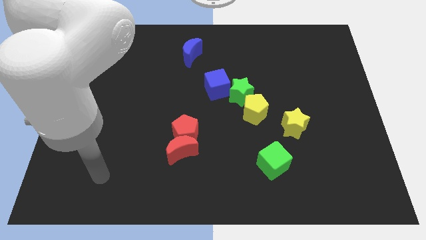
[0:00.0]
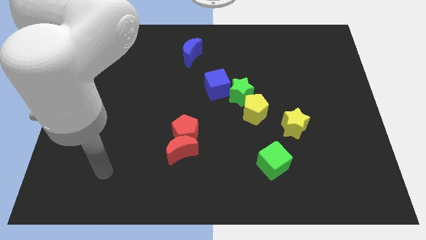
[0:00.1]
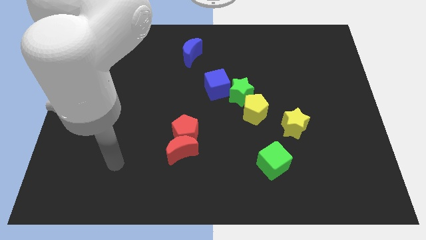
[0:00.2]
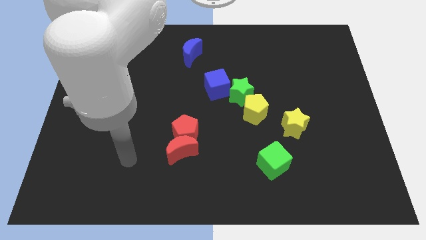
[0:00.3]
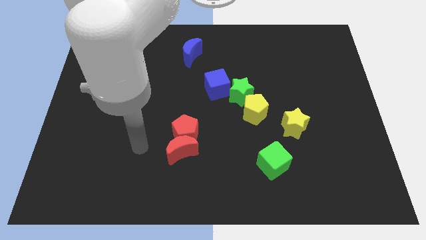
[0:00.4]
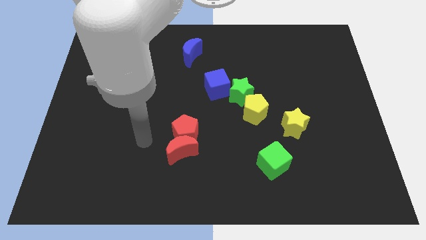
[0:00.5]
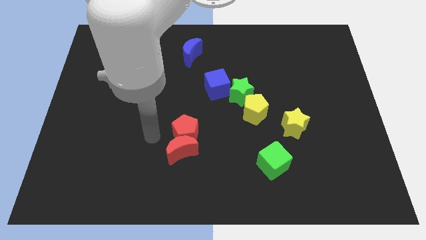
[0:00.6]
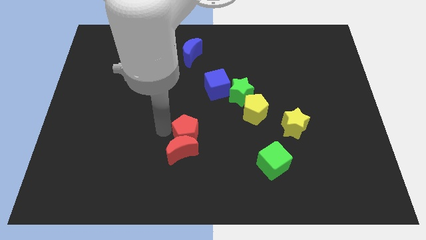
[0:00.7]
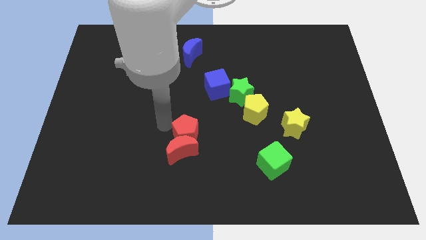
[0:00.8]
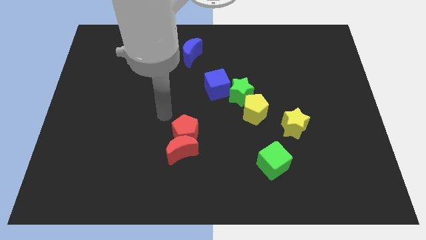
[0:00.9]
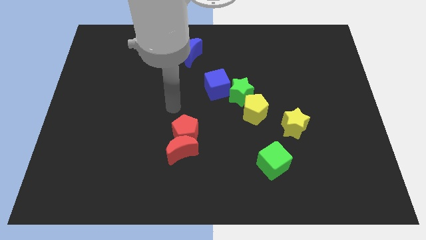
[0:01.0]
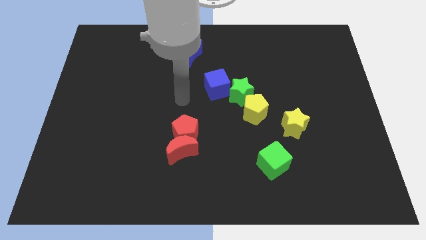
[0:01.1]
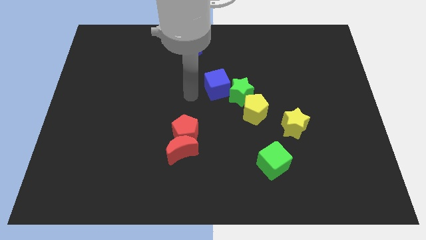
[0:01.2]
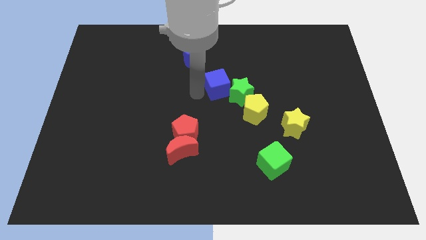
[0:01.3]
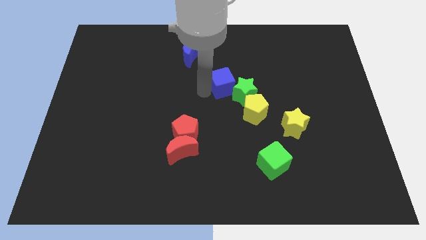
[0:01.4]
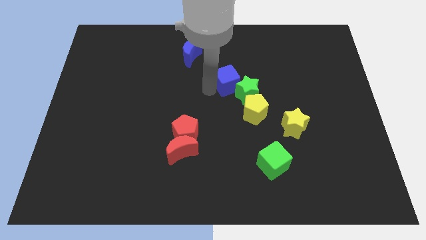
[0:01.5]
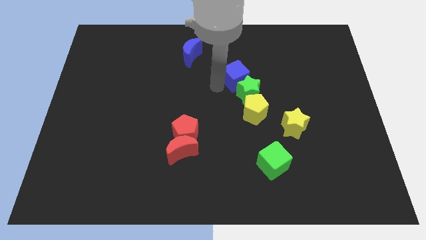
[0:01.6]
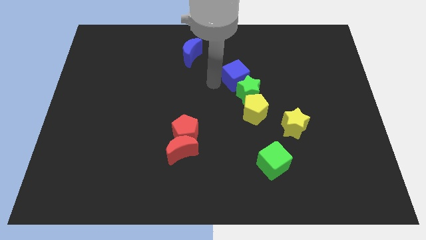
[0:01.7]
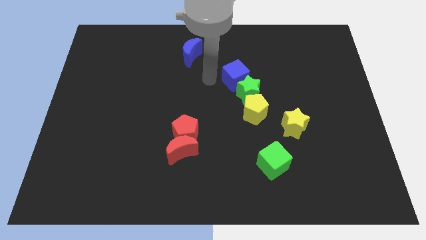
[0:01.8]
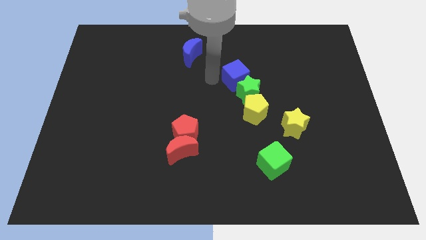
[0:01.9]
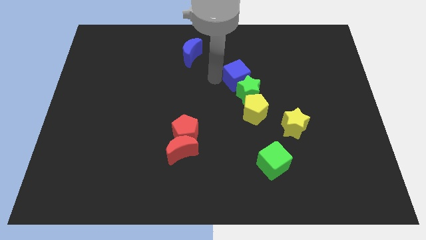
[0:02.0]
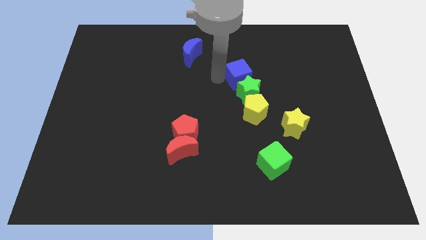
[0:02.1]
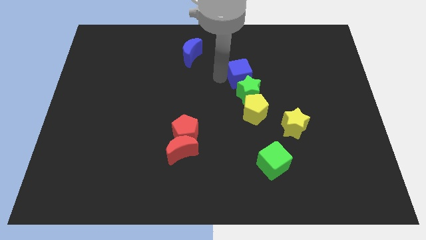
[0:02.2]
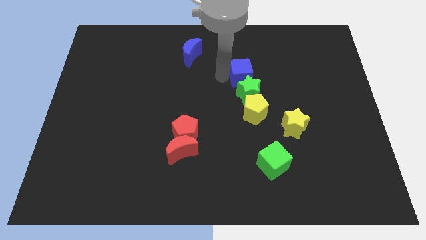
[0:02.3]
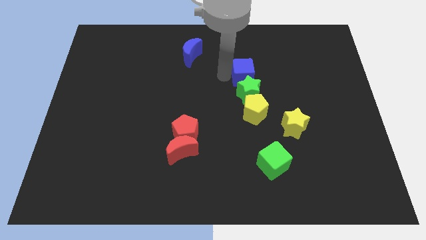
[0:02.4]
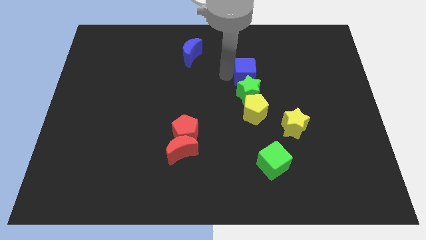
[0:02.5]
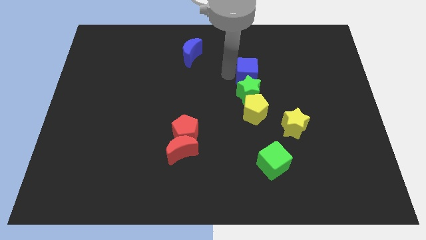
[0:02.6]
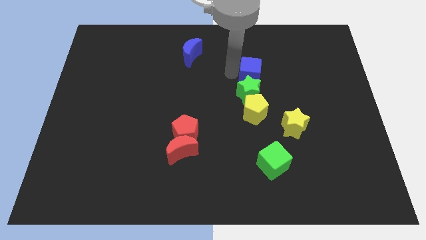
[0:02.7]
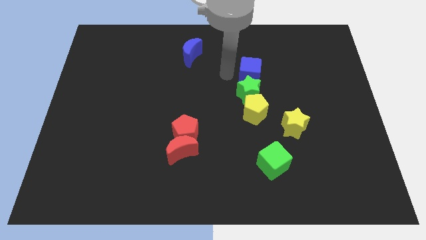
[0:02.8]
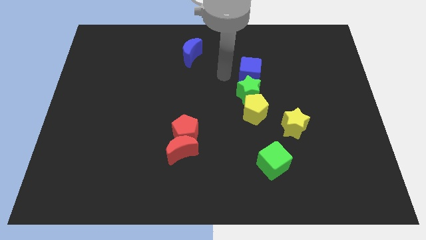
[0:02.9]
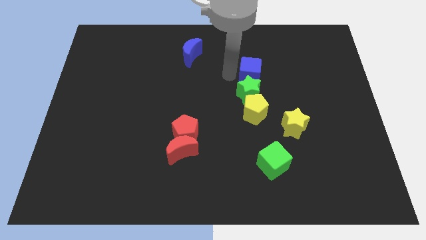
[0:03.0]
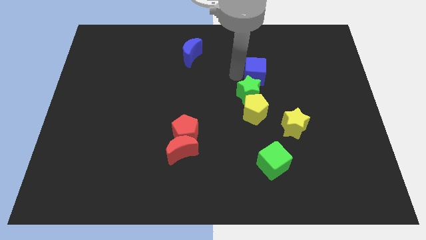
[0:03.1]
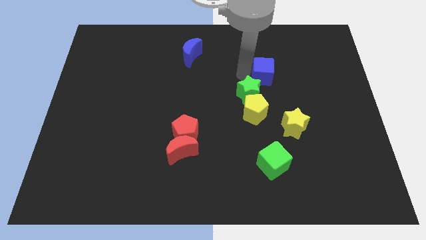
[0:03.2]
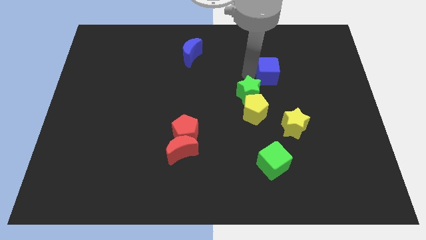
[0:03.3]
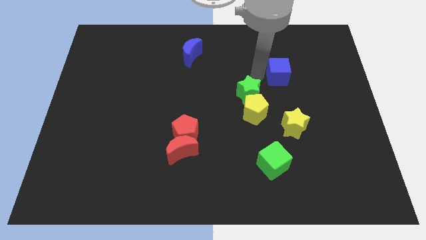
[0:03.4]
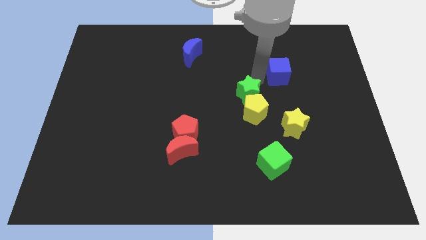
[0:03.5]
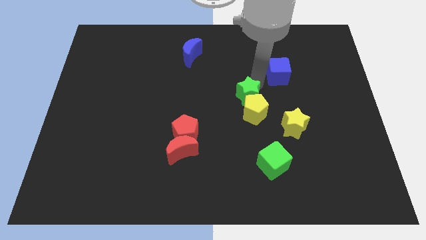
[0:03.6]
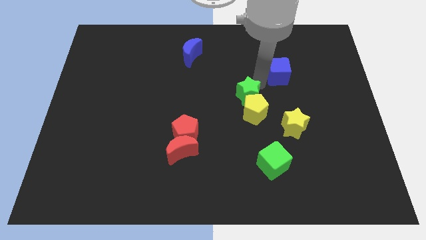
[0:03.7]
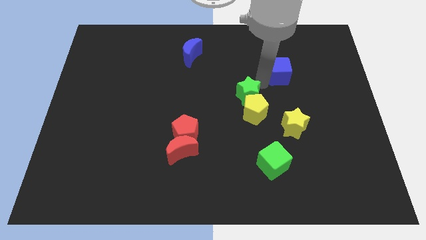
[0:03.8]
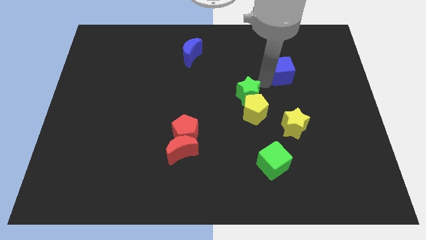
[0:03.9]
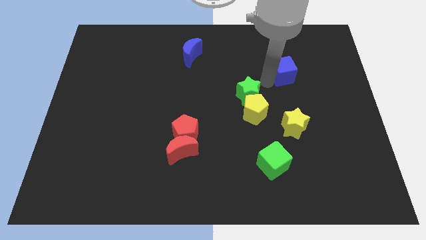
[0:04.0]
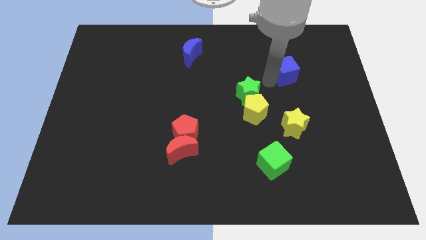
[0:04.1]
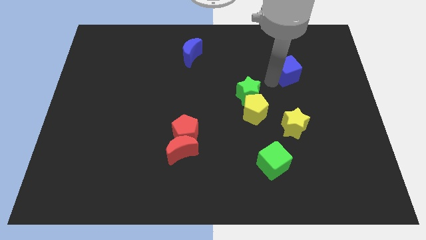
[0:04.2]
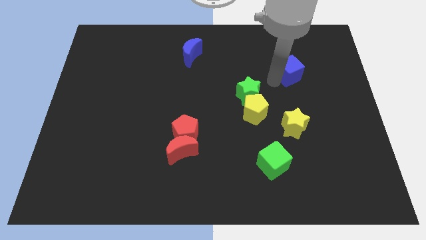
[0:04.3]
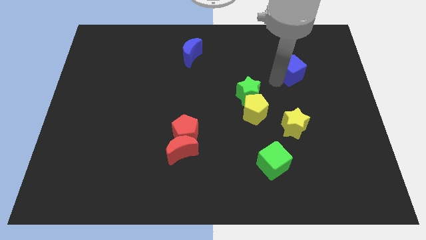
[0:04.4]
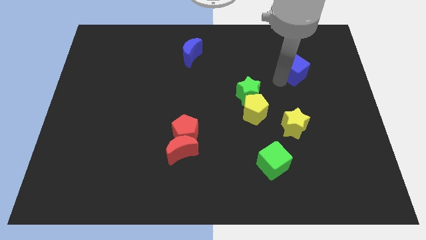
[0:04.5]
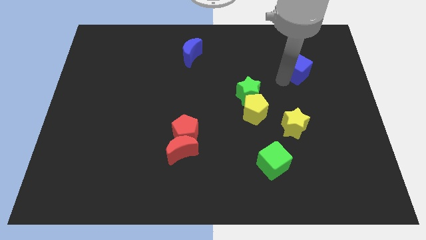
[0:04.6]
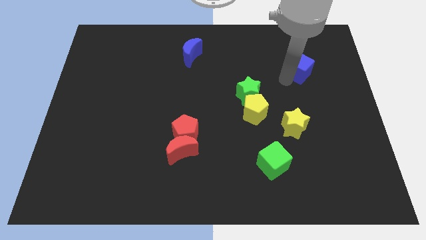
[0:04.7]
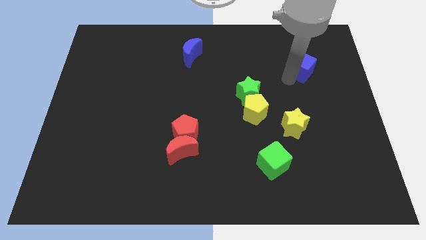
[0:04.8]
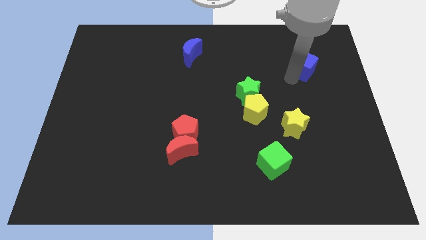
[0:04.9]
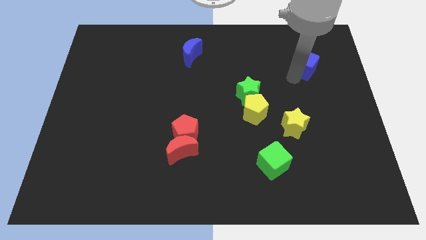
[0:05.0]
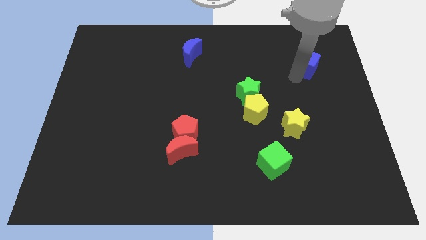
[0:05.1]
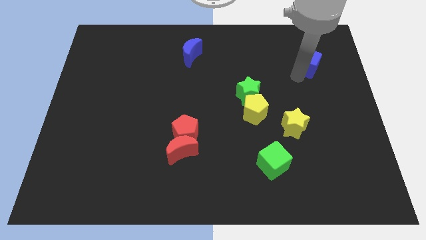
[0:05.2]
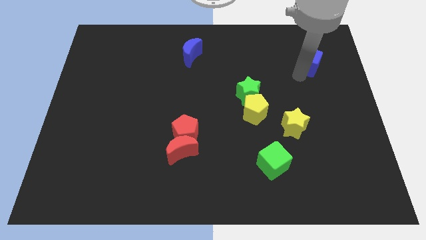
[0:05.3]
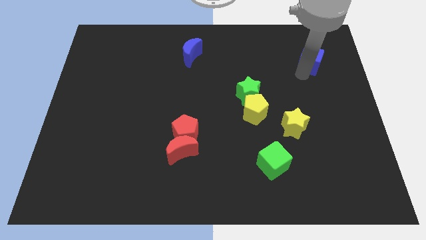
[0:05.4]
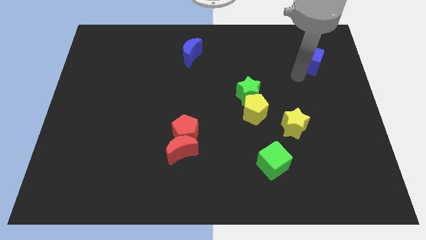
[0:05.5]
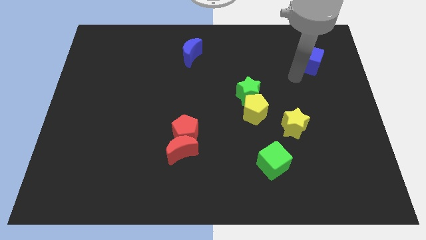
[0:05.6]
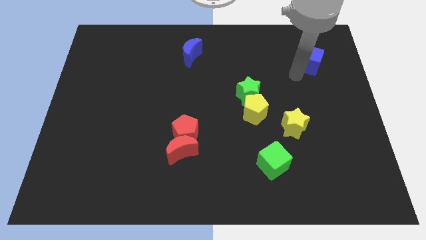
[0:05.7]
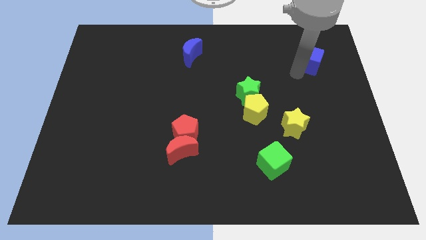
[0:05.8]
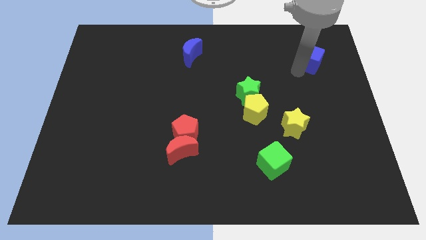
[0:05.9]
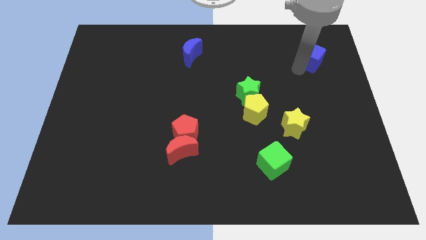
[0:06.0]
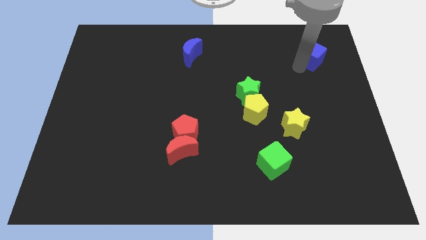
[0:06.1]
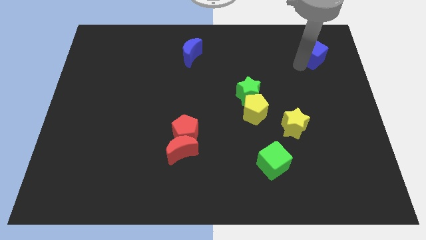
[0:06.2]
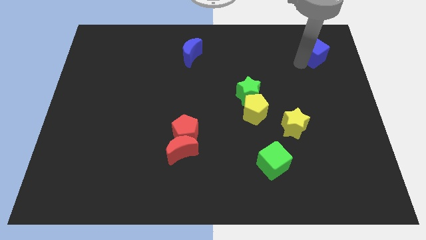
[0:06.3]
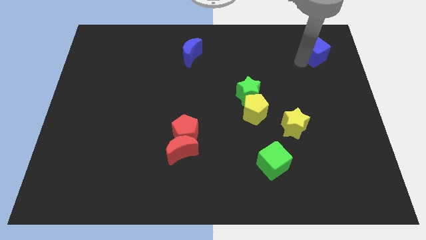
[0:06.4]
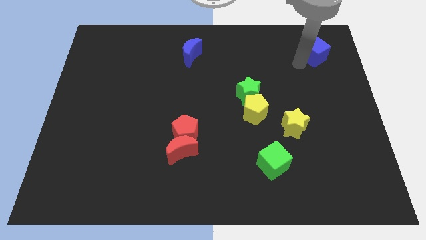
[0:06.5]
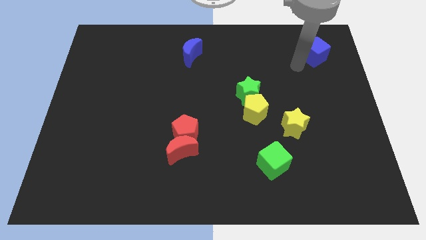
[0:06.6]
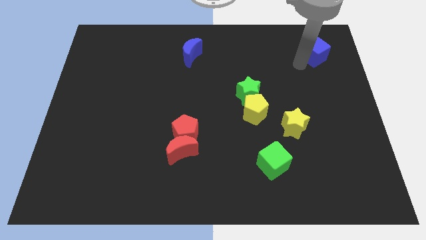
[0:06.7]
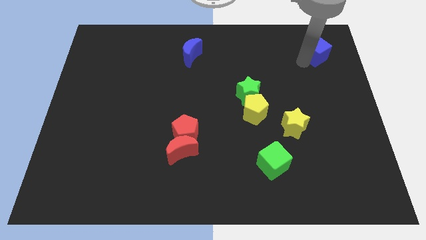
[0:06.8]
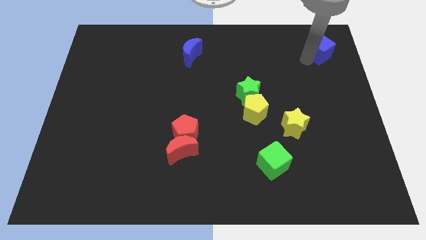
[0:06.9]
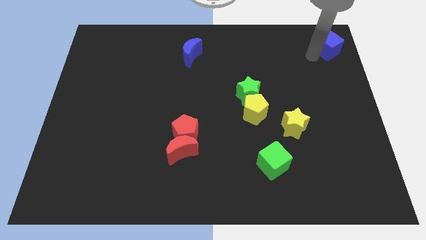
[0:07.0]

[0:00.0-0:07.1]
put the blue cube to the top right of the board
